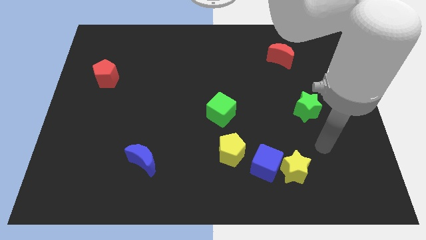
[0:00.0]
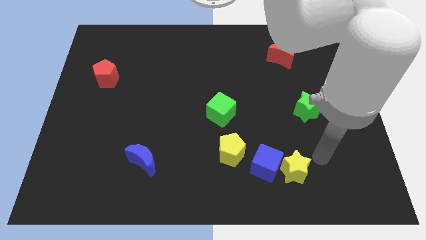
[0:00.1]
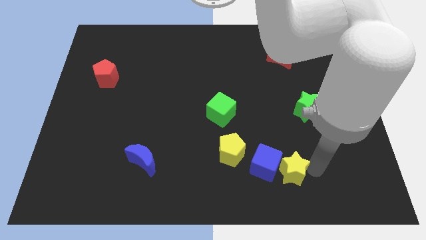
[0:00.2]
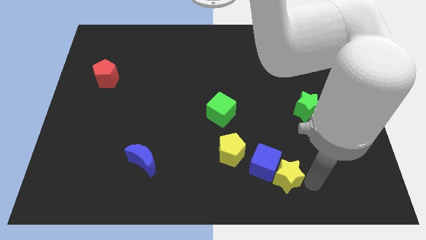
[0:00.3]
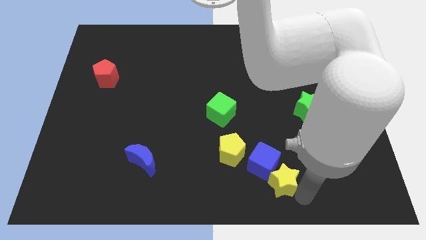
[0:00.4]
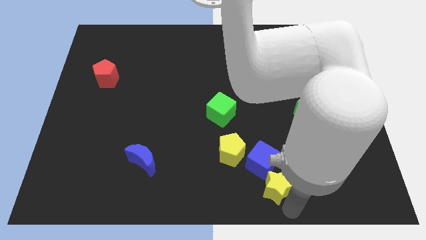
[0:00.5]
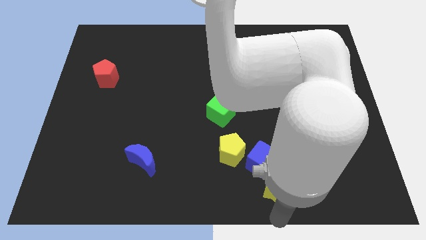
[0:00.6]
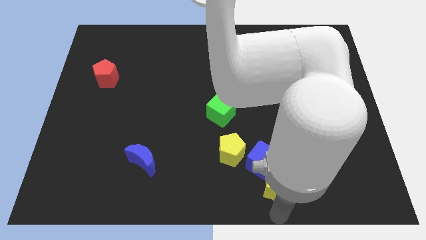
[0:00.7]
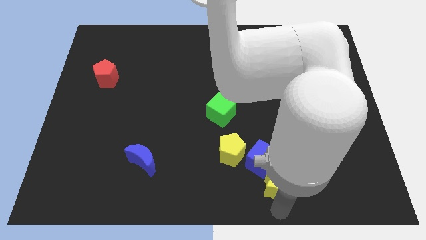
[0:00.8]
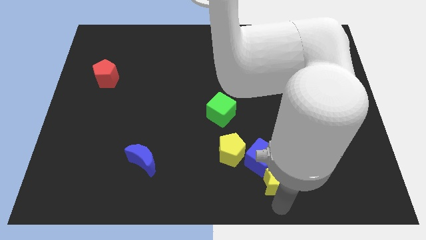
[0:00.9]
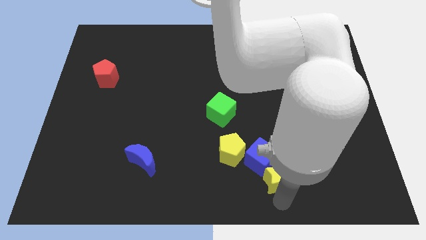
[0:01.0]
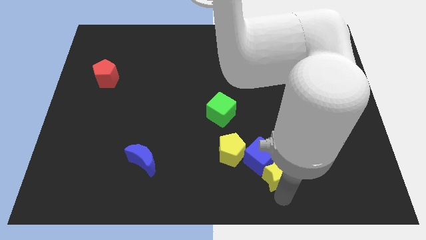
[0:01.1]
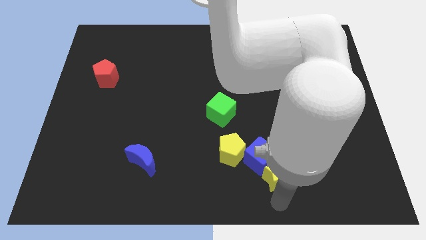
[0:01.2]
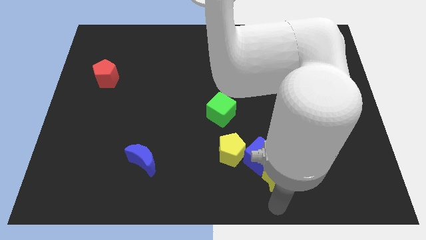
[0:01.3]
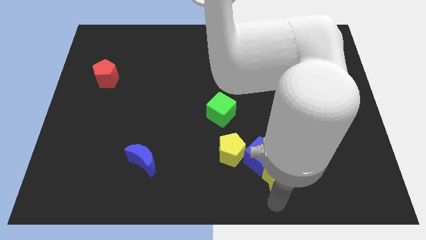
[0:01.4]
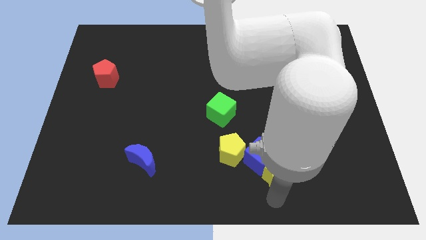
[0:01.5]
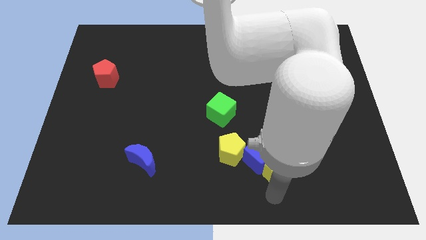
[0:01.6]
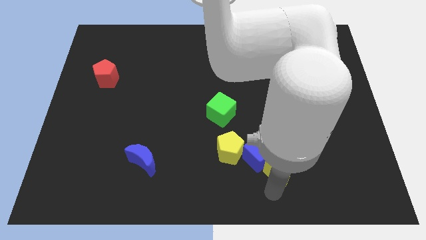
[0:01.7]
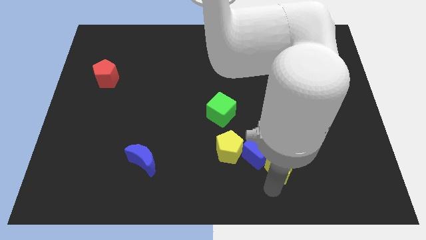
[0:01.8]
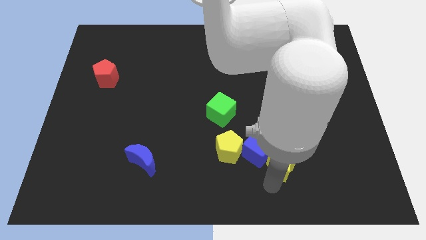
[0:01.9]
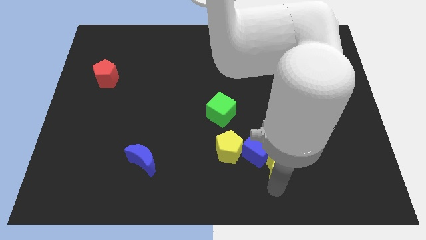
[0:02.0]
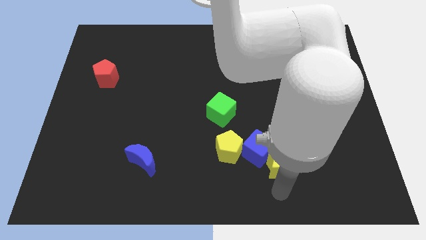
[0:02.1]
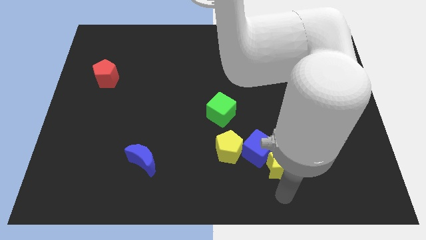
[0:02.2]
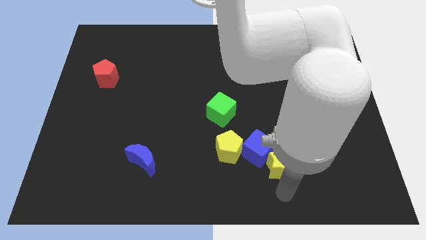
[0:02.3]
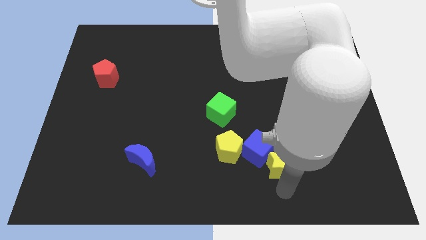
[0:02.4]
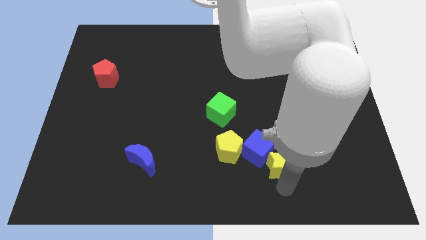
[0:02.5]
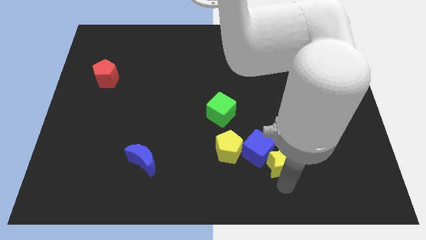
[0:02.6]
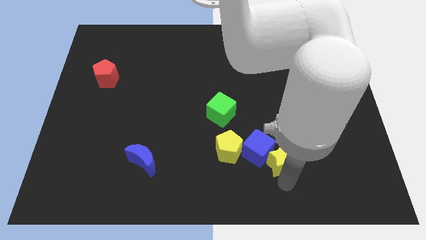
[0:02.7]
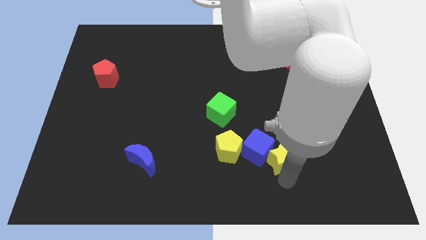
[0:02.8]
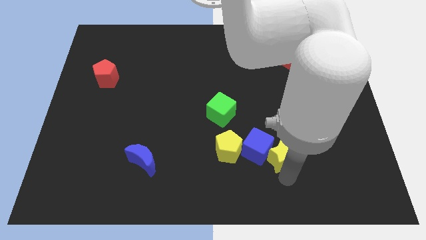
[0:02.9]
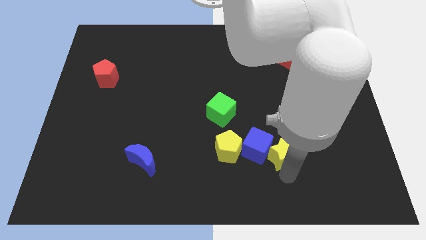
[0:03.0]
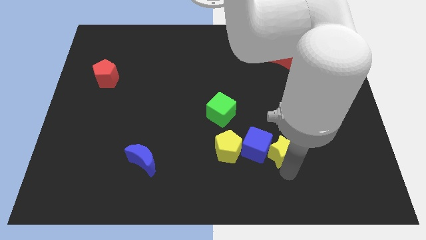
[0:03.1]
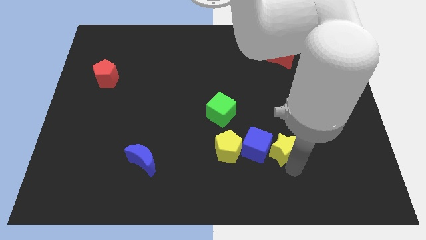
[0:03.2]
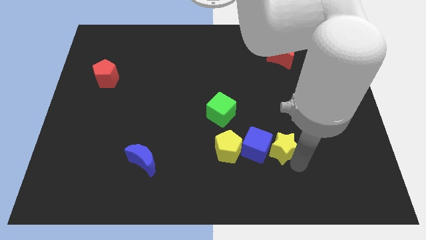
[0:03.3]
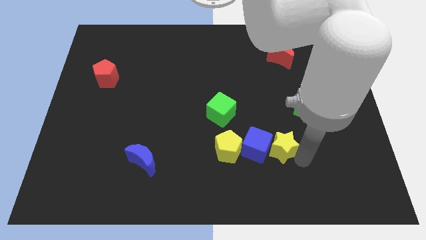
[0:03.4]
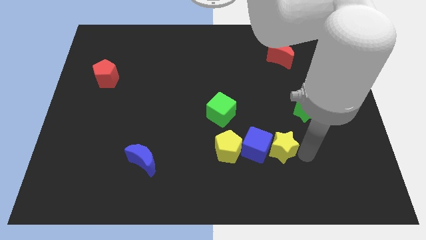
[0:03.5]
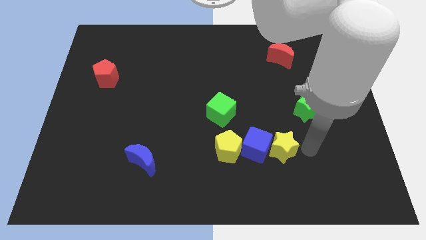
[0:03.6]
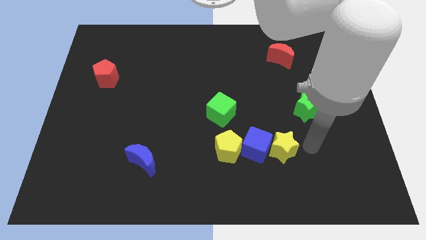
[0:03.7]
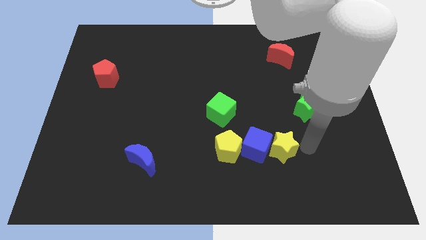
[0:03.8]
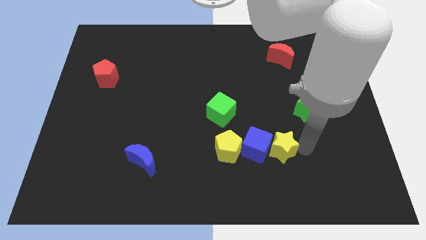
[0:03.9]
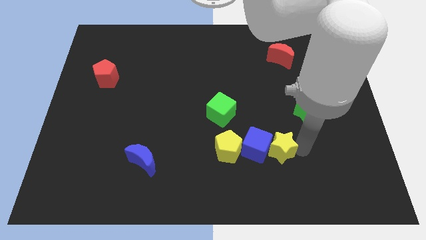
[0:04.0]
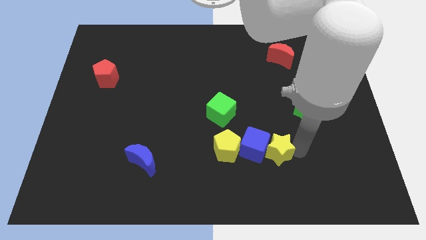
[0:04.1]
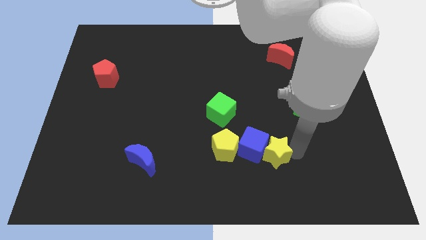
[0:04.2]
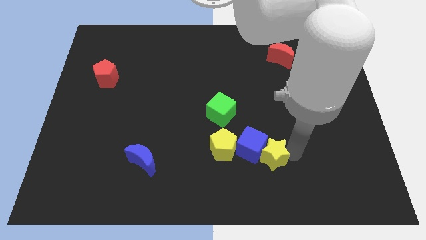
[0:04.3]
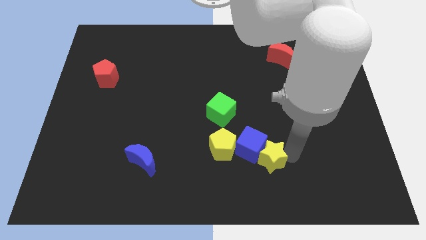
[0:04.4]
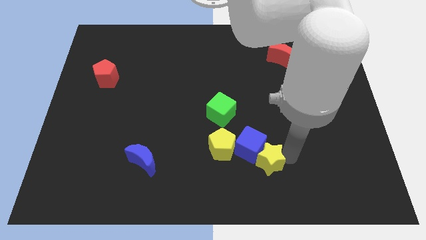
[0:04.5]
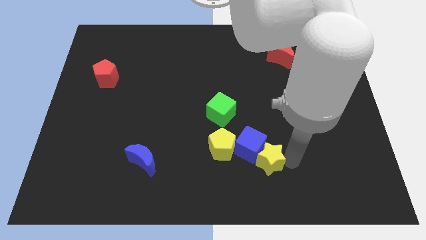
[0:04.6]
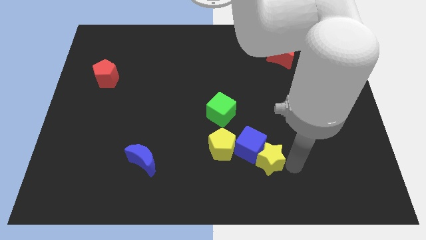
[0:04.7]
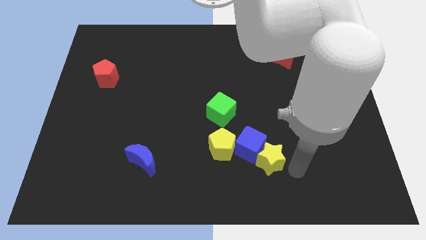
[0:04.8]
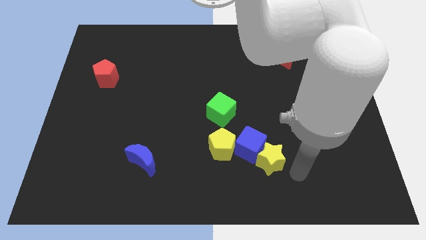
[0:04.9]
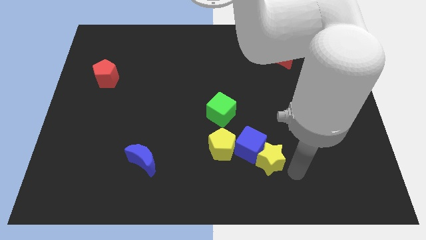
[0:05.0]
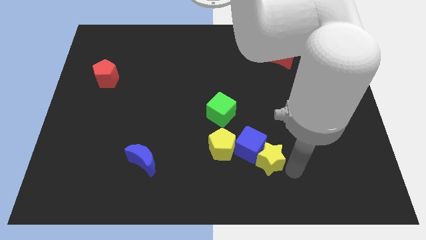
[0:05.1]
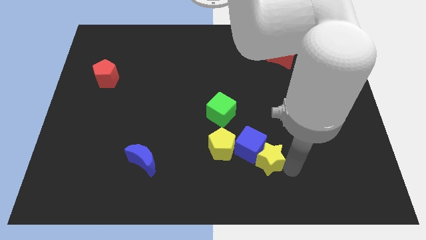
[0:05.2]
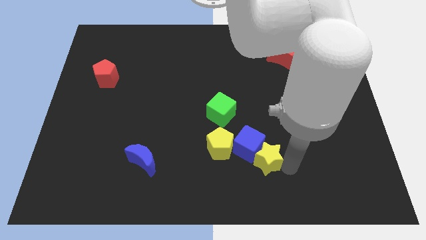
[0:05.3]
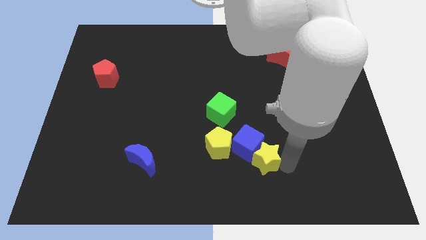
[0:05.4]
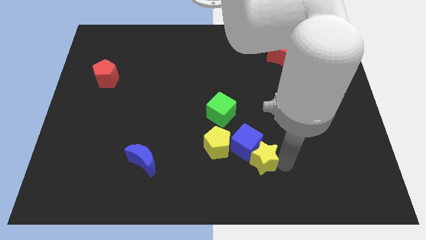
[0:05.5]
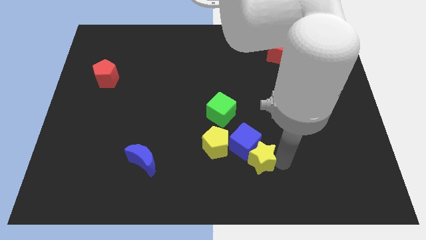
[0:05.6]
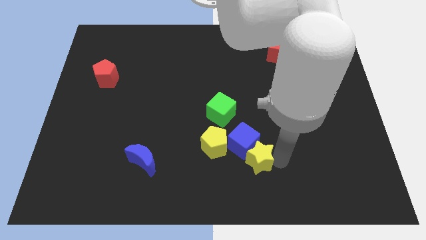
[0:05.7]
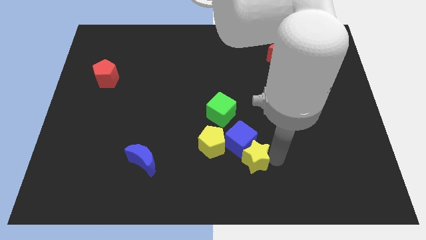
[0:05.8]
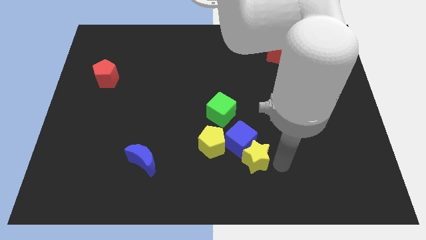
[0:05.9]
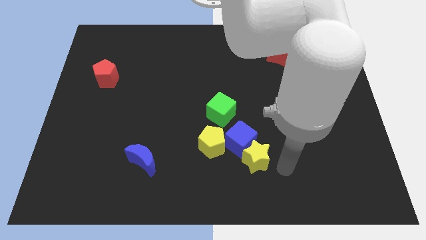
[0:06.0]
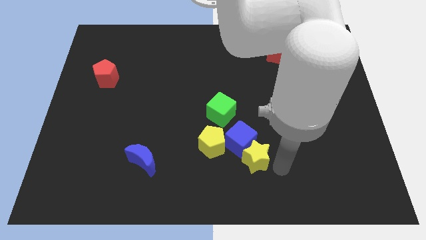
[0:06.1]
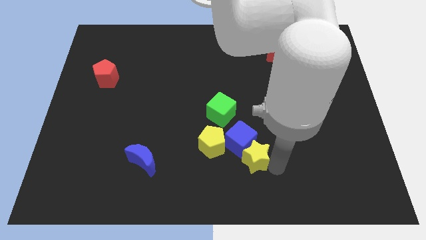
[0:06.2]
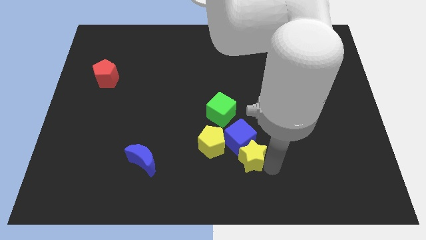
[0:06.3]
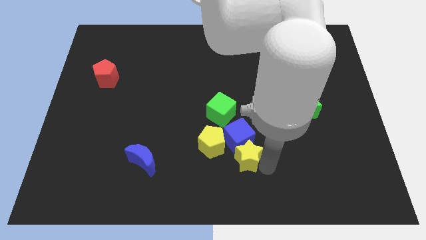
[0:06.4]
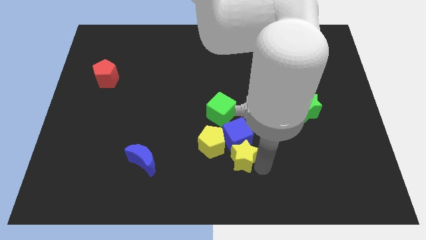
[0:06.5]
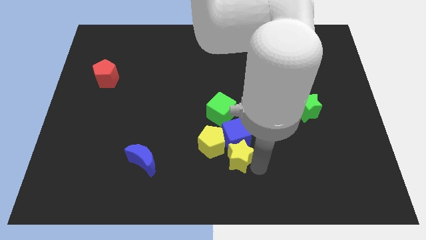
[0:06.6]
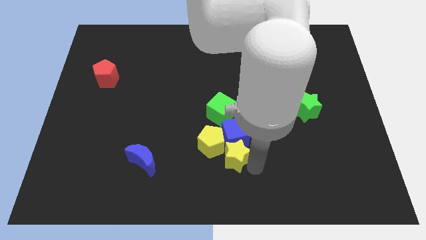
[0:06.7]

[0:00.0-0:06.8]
move the yellow star close to the yellow pentagon

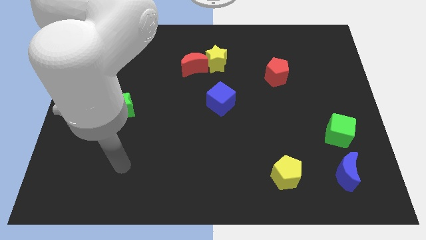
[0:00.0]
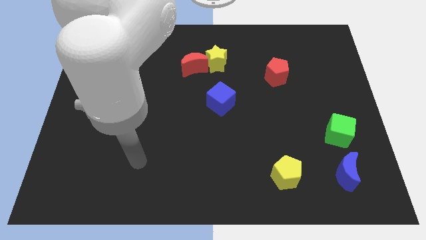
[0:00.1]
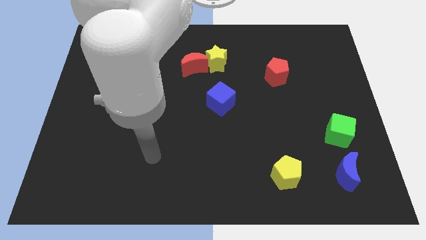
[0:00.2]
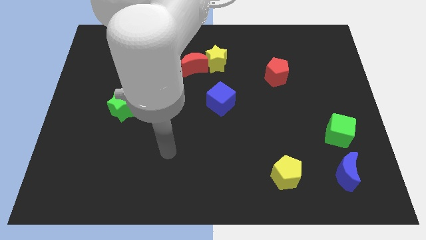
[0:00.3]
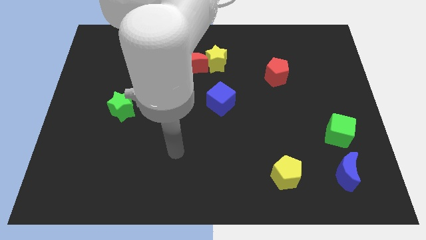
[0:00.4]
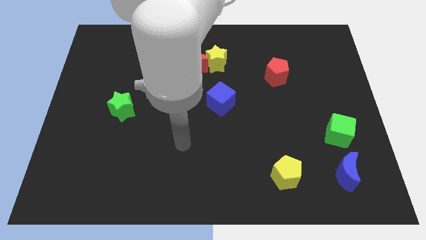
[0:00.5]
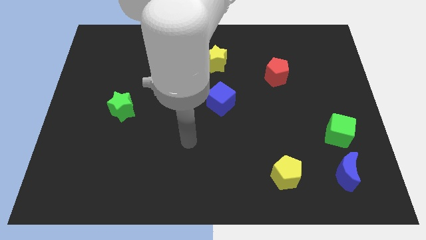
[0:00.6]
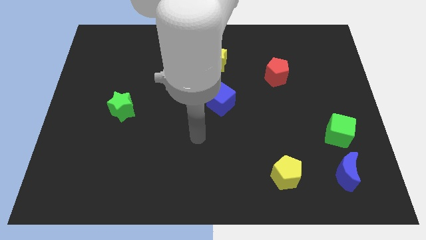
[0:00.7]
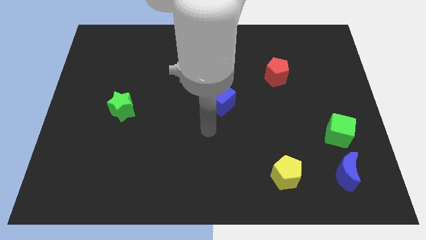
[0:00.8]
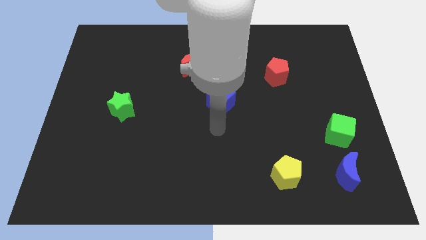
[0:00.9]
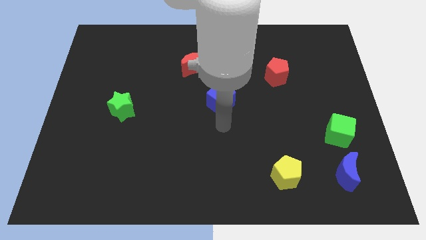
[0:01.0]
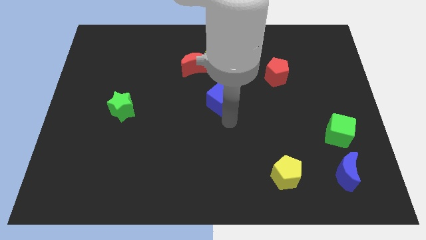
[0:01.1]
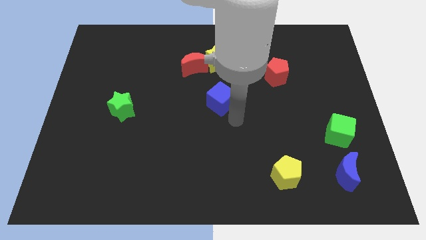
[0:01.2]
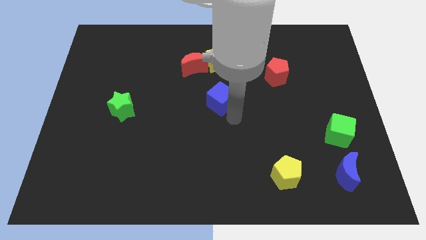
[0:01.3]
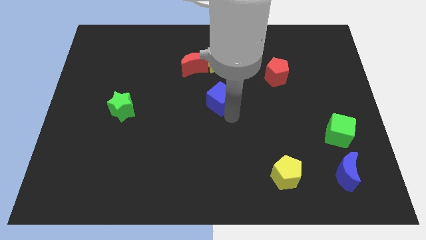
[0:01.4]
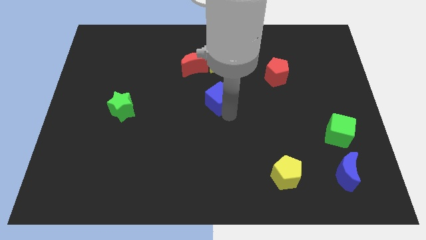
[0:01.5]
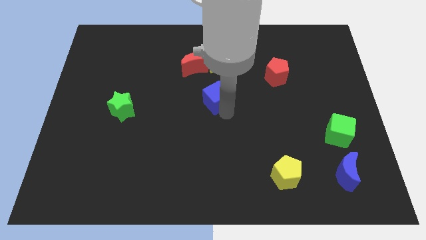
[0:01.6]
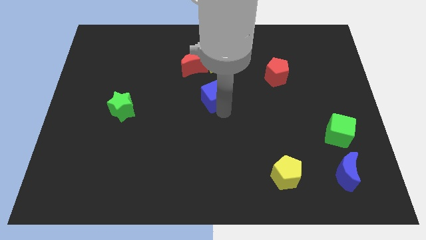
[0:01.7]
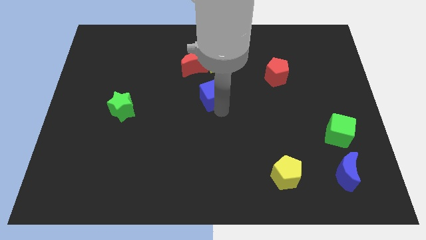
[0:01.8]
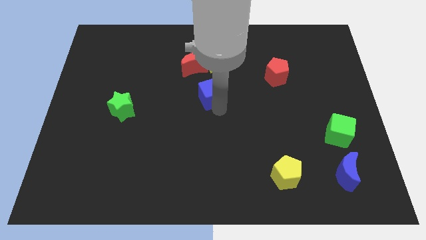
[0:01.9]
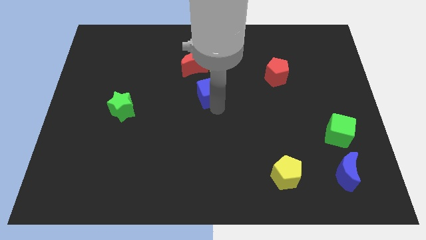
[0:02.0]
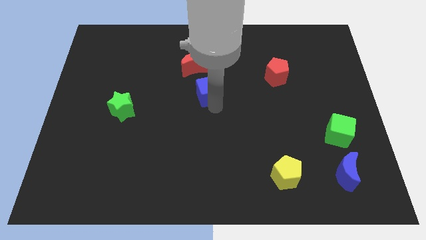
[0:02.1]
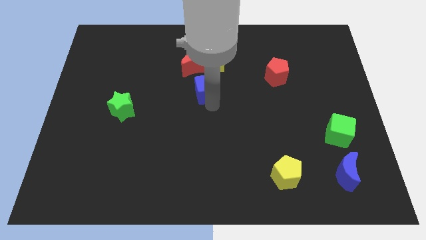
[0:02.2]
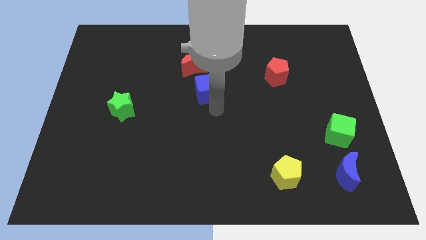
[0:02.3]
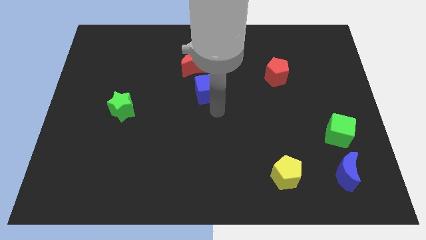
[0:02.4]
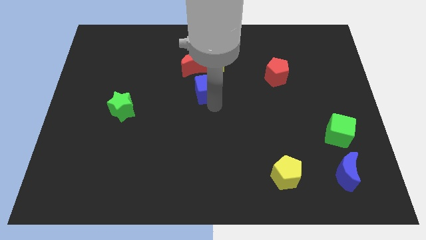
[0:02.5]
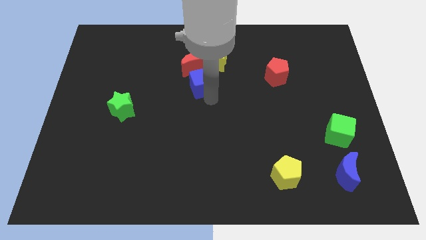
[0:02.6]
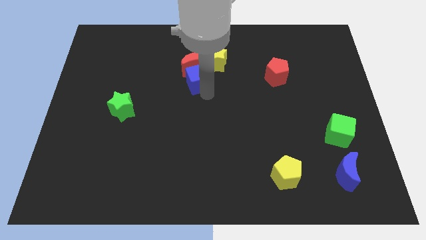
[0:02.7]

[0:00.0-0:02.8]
put the blue cube close to the red moon
